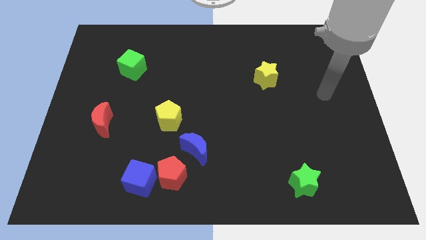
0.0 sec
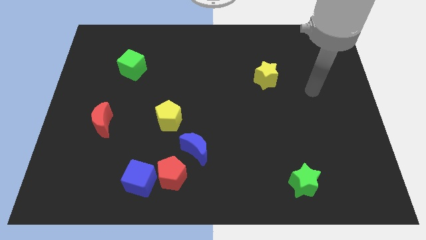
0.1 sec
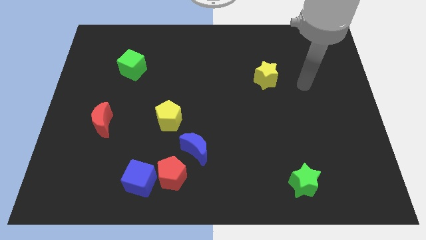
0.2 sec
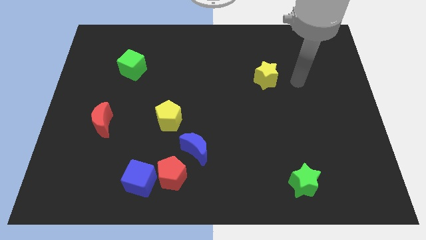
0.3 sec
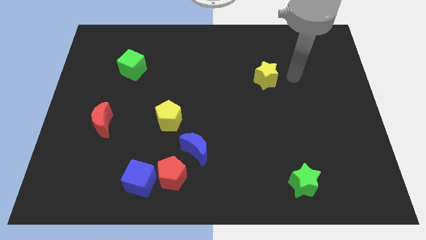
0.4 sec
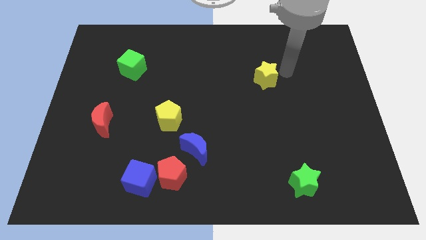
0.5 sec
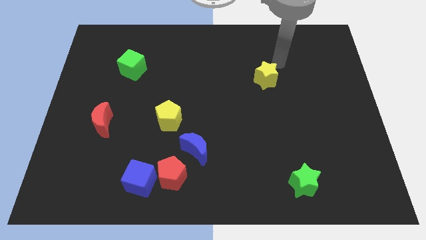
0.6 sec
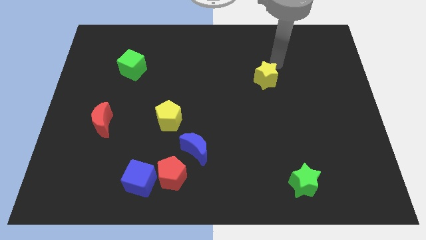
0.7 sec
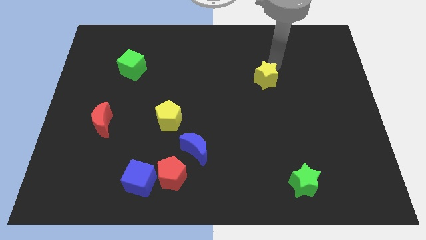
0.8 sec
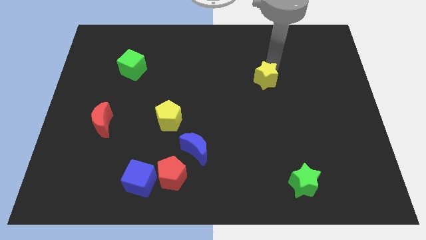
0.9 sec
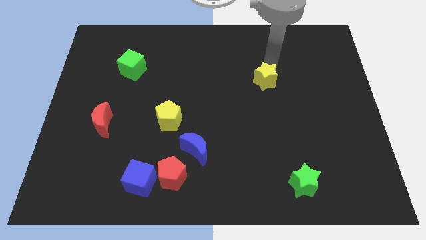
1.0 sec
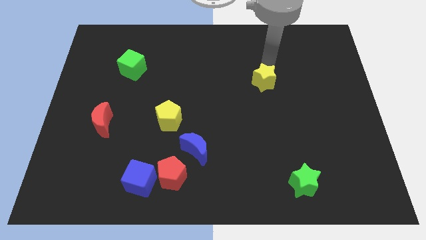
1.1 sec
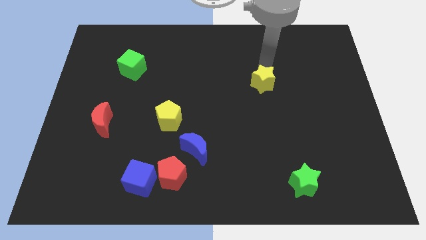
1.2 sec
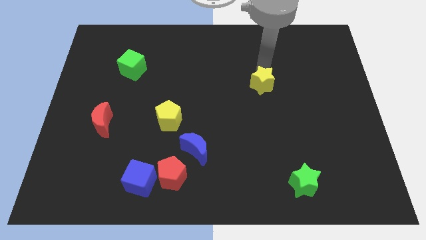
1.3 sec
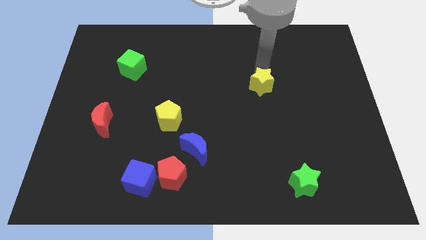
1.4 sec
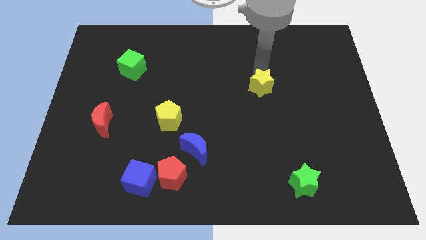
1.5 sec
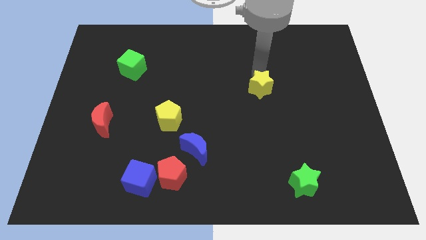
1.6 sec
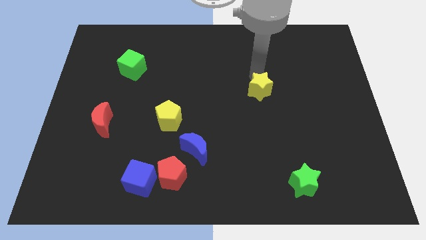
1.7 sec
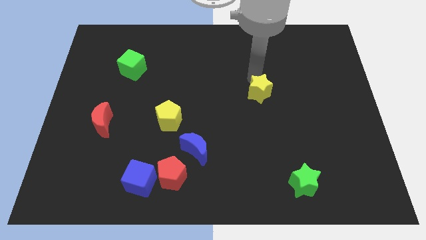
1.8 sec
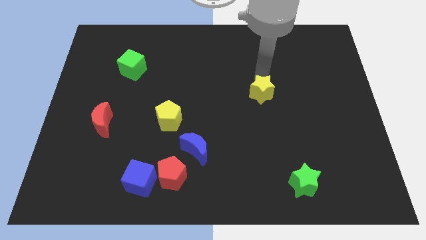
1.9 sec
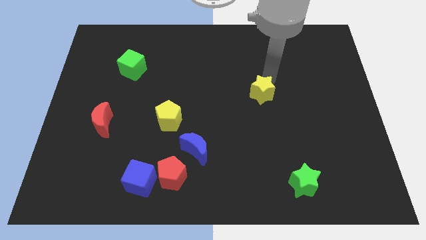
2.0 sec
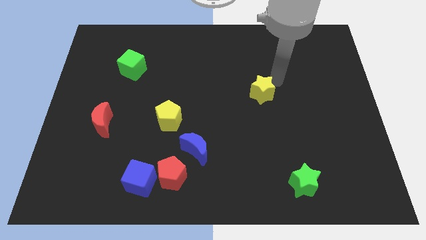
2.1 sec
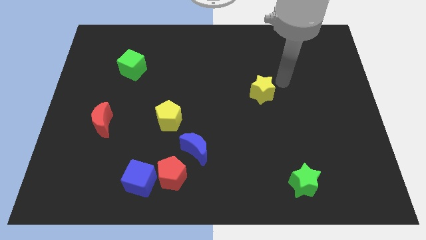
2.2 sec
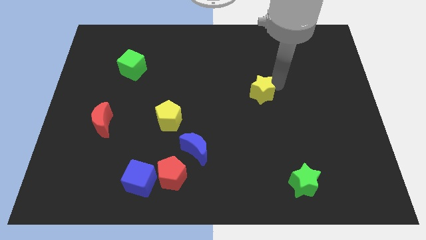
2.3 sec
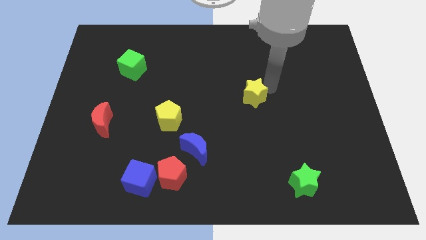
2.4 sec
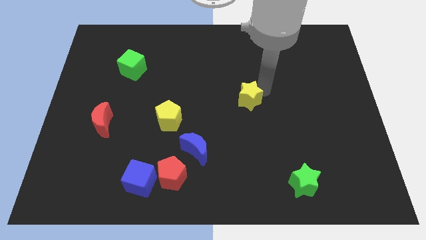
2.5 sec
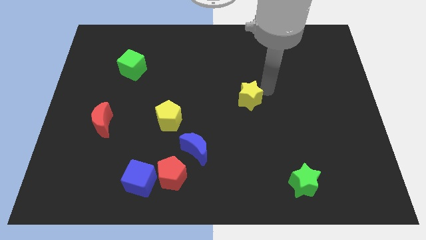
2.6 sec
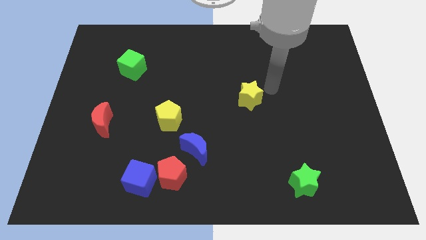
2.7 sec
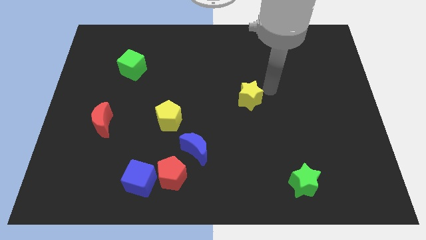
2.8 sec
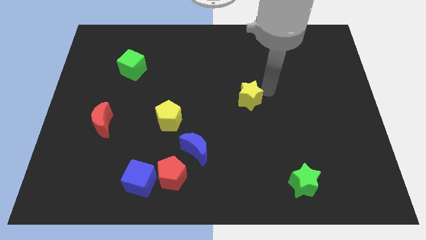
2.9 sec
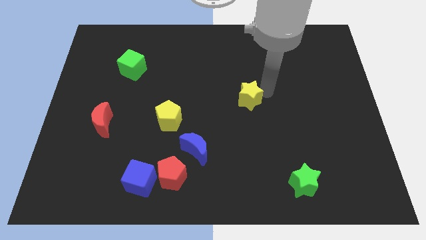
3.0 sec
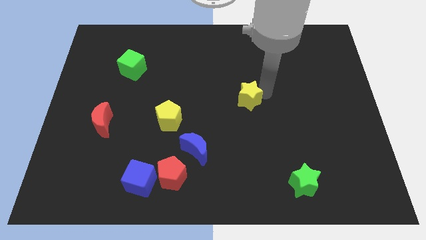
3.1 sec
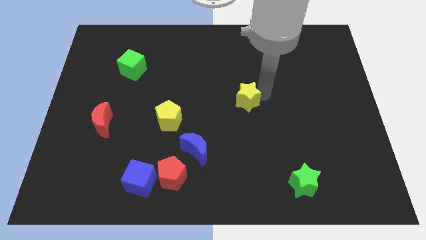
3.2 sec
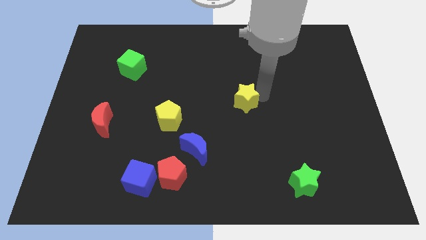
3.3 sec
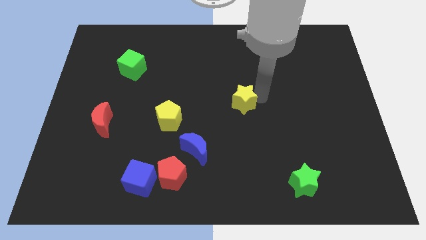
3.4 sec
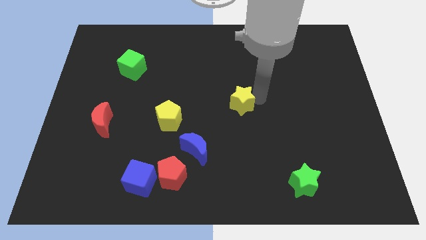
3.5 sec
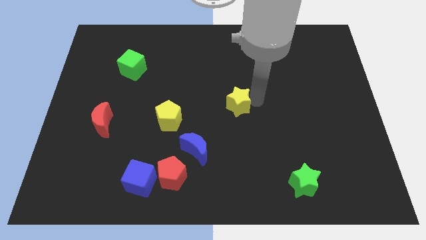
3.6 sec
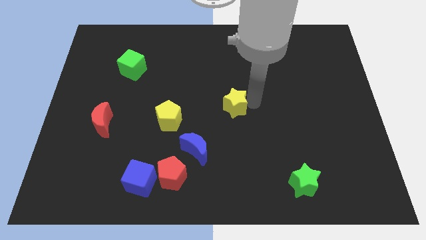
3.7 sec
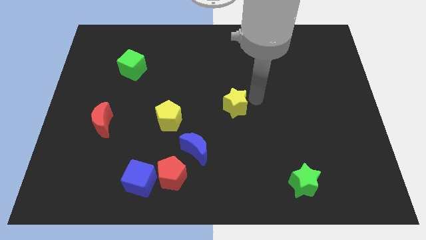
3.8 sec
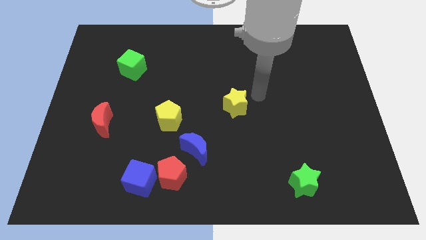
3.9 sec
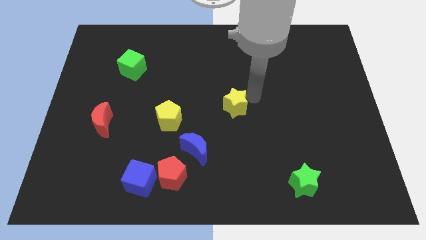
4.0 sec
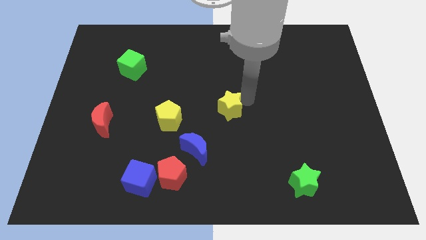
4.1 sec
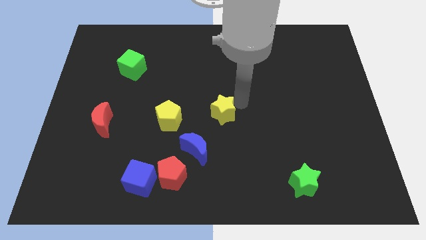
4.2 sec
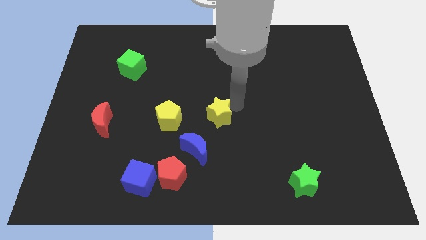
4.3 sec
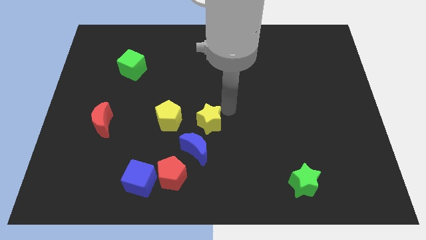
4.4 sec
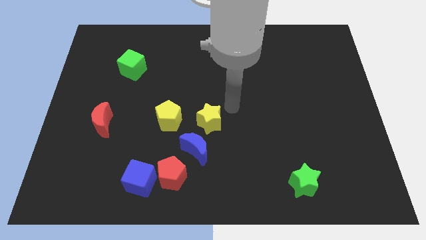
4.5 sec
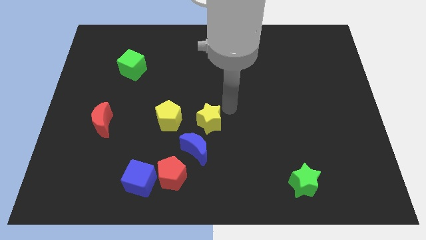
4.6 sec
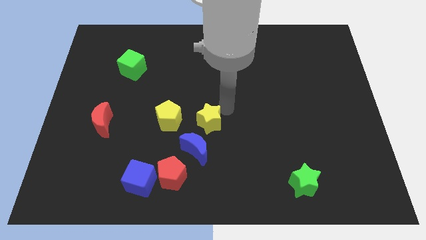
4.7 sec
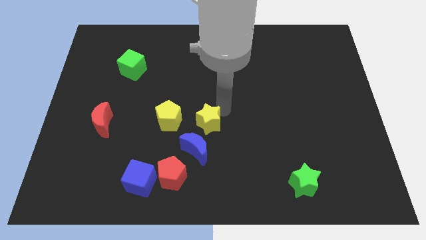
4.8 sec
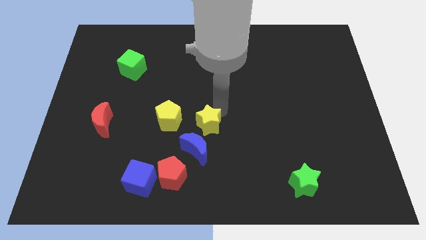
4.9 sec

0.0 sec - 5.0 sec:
move the yellow star down and left

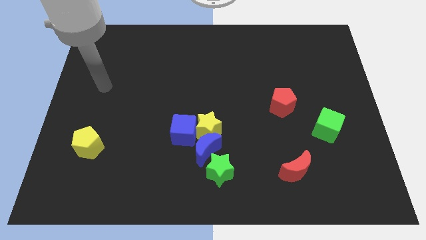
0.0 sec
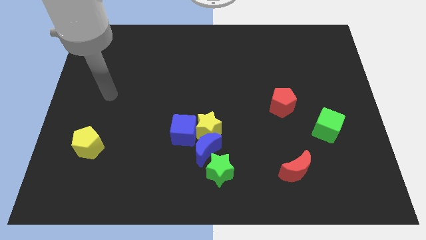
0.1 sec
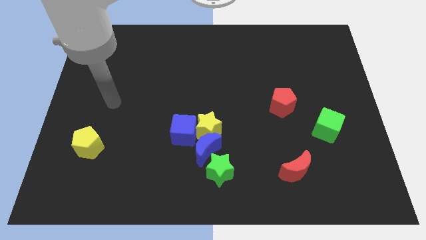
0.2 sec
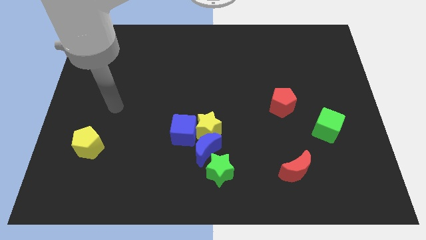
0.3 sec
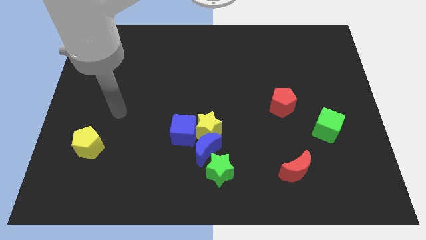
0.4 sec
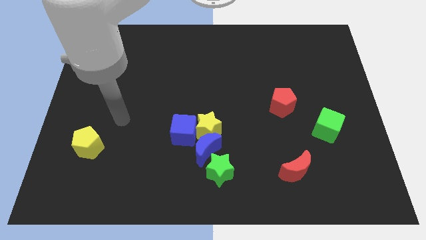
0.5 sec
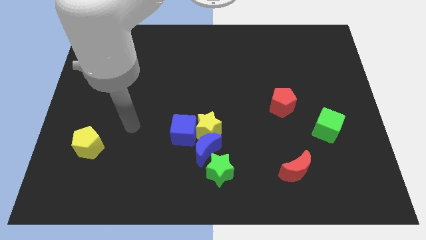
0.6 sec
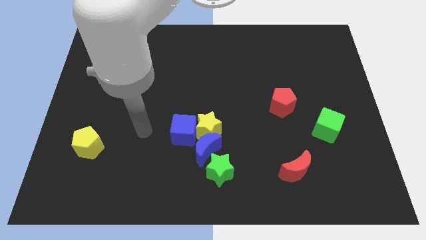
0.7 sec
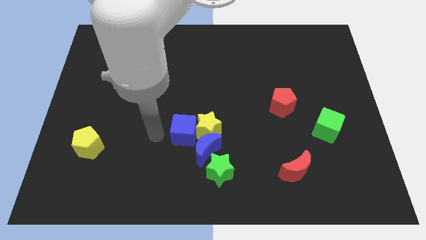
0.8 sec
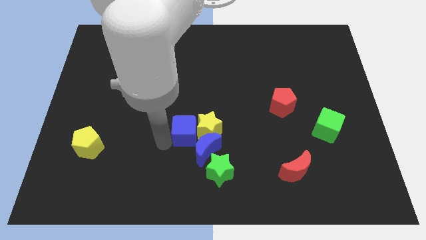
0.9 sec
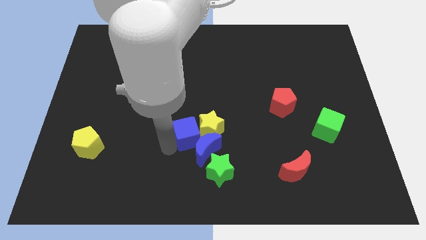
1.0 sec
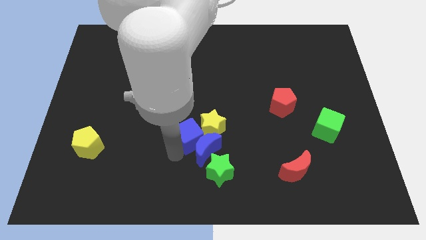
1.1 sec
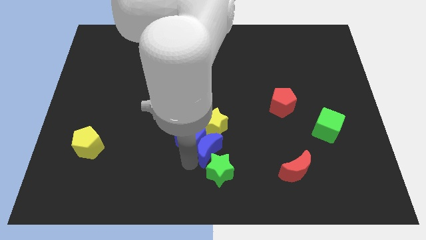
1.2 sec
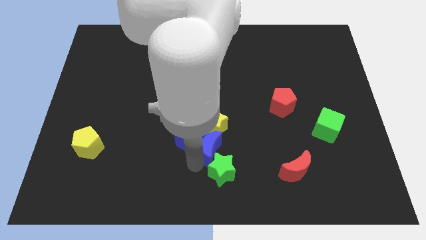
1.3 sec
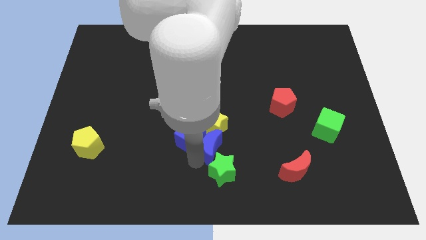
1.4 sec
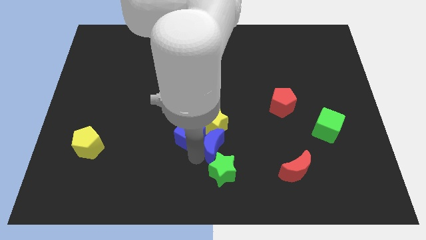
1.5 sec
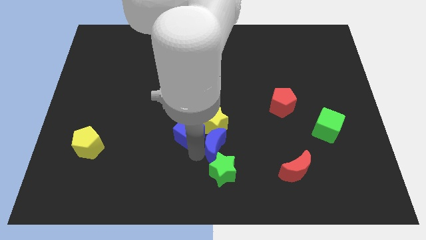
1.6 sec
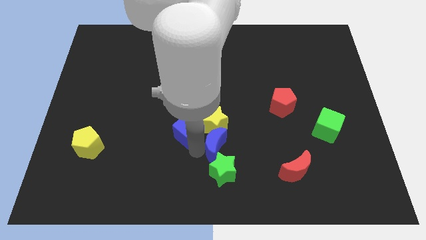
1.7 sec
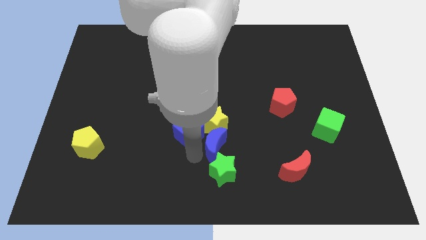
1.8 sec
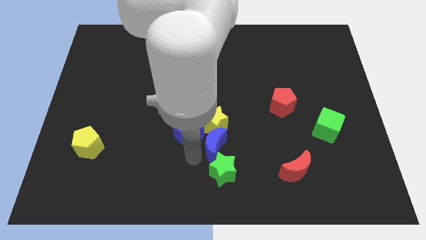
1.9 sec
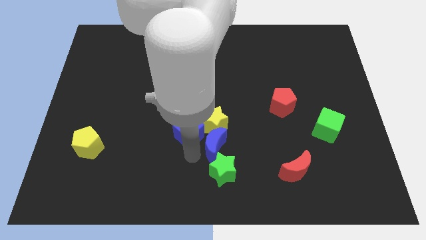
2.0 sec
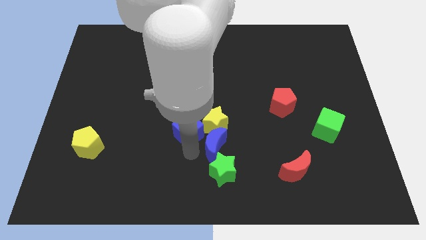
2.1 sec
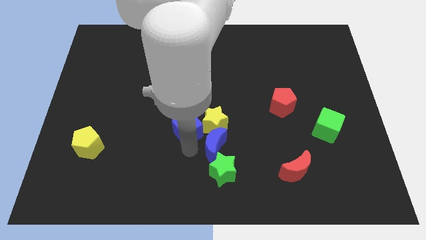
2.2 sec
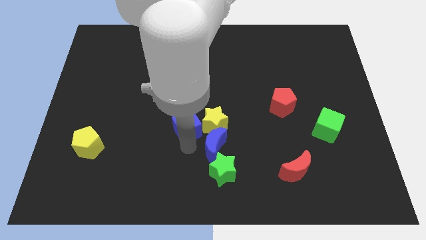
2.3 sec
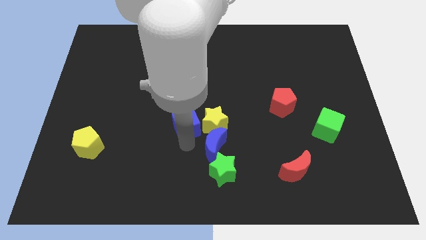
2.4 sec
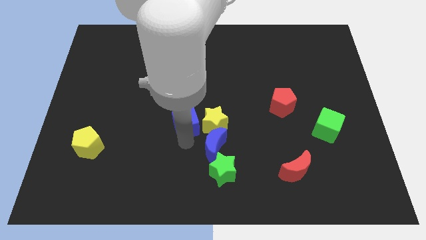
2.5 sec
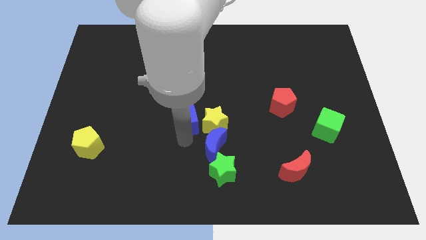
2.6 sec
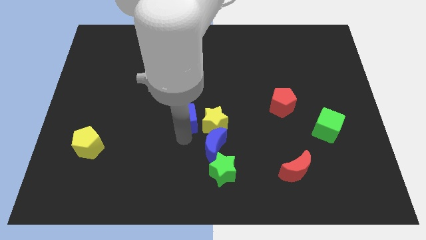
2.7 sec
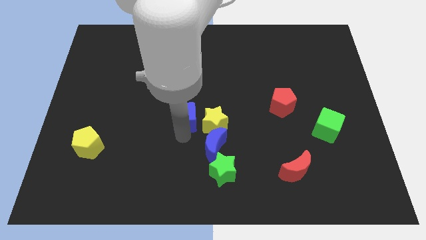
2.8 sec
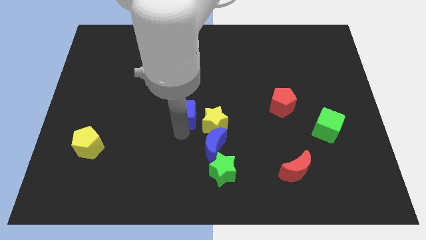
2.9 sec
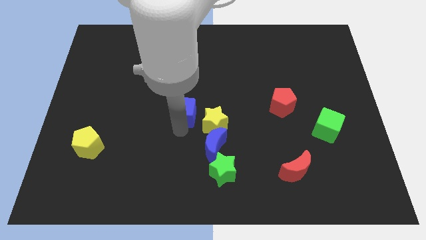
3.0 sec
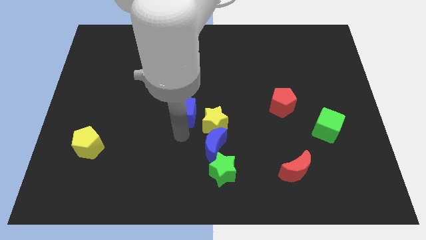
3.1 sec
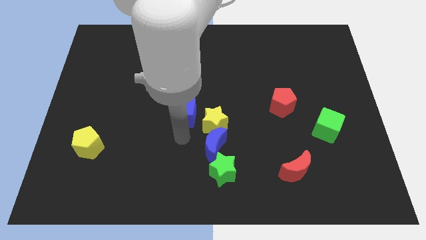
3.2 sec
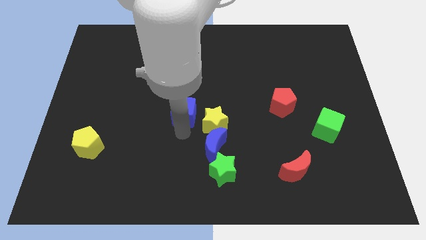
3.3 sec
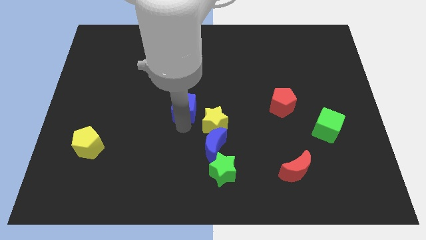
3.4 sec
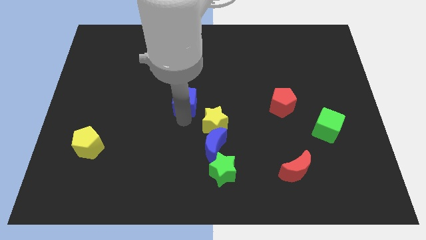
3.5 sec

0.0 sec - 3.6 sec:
slightly move the blue cube up
